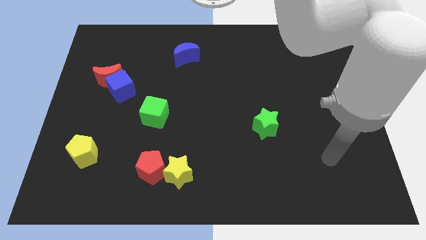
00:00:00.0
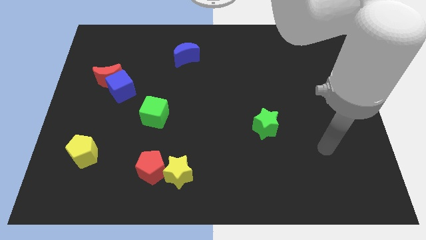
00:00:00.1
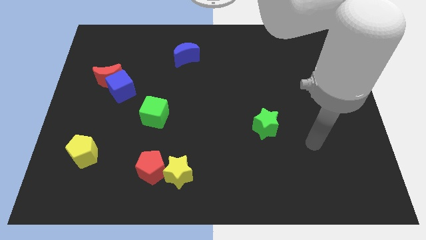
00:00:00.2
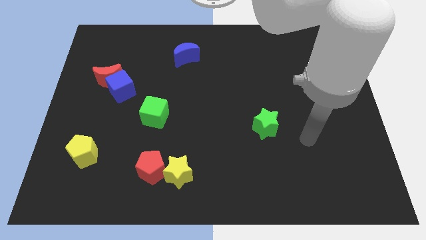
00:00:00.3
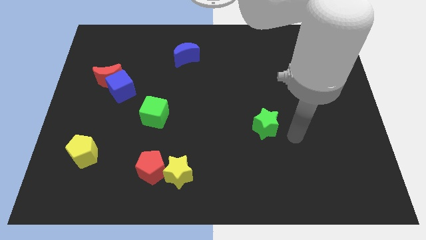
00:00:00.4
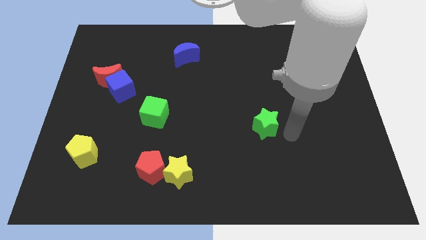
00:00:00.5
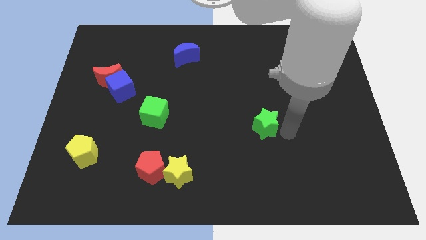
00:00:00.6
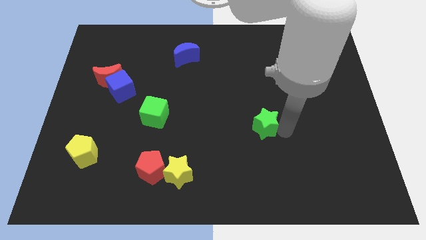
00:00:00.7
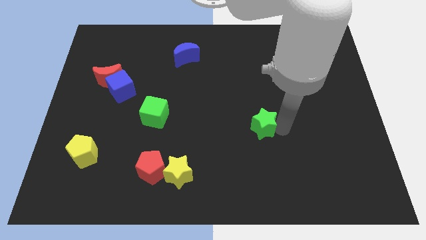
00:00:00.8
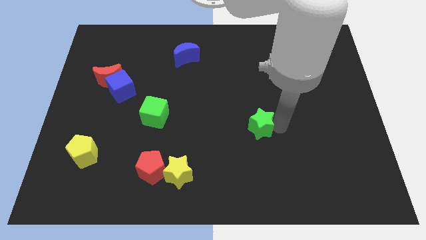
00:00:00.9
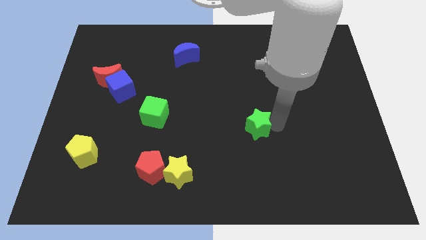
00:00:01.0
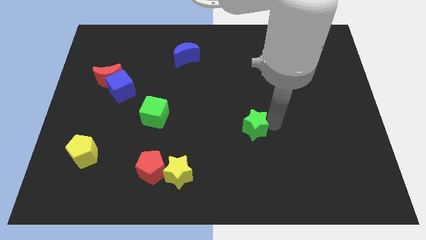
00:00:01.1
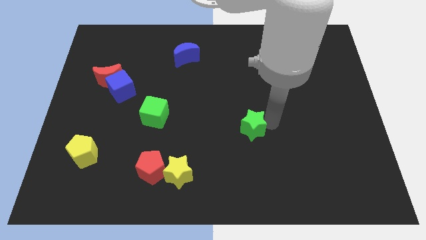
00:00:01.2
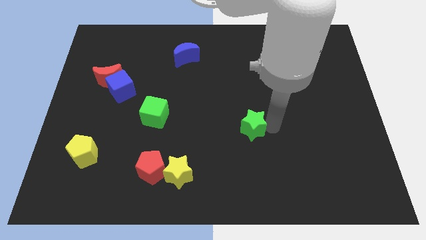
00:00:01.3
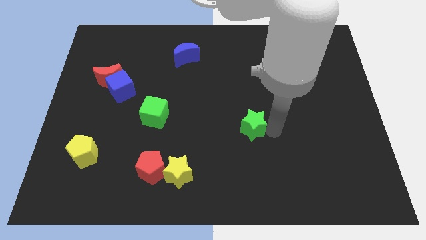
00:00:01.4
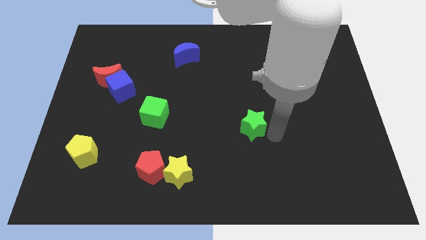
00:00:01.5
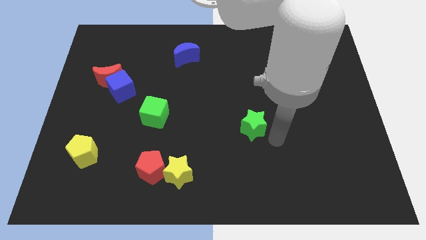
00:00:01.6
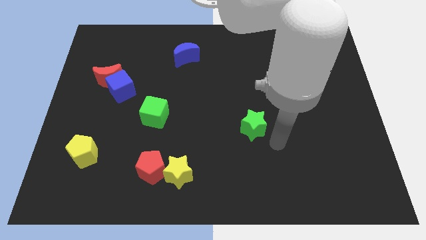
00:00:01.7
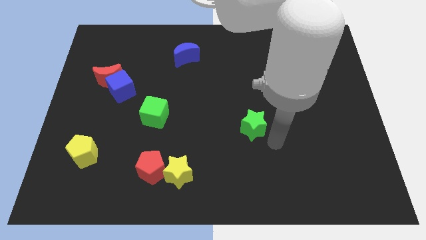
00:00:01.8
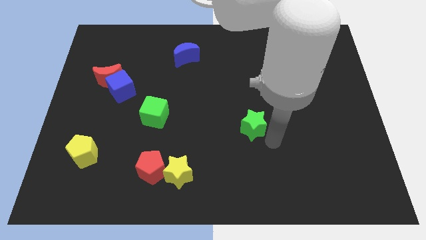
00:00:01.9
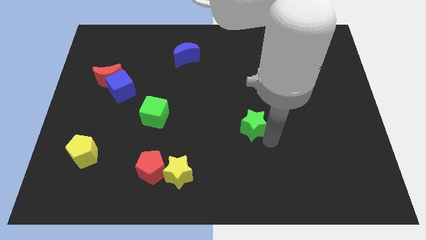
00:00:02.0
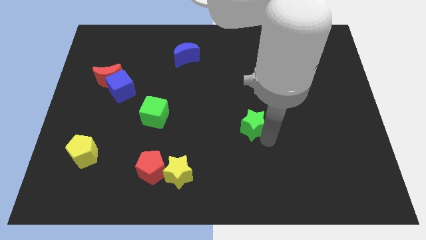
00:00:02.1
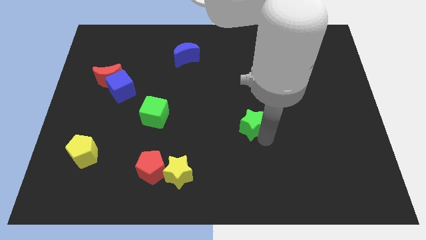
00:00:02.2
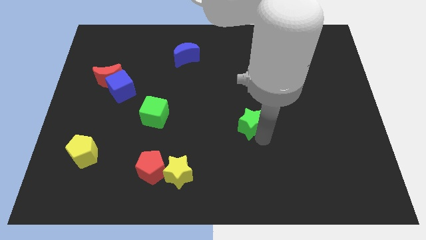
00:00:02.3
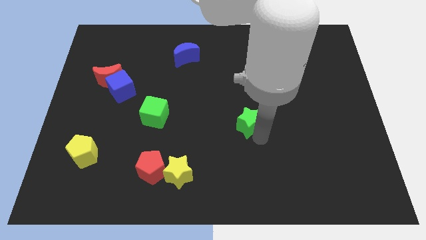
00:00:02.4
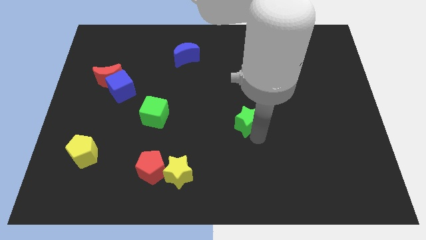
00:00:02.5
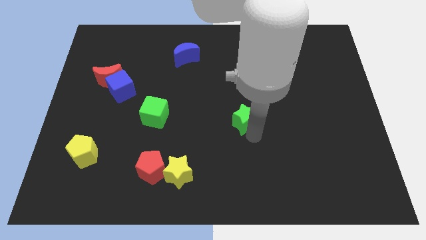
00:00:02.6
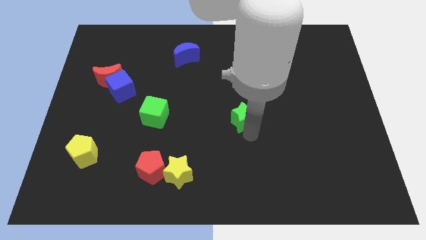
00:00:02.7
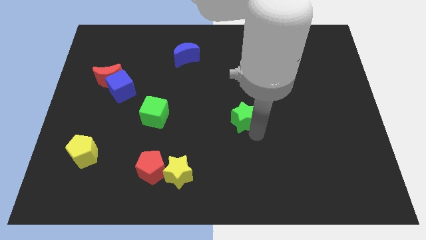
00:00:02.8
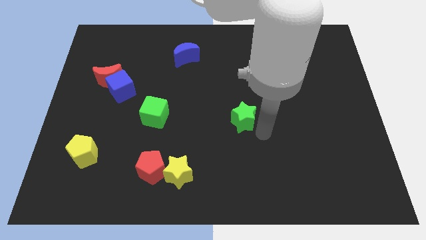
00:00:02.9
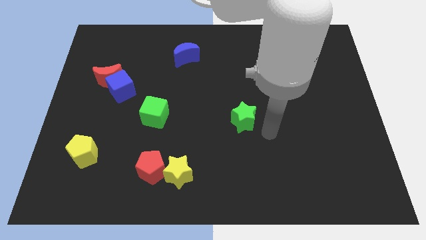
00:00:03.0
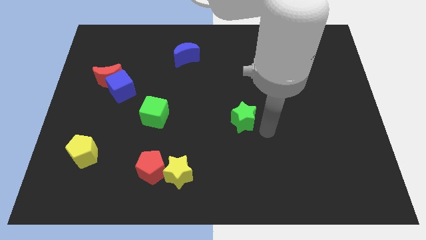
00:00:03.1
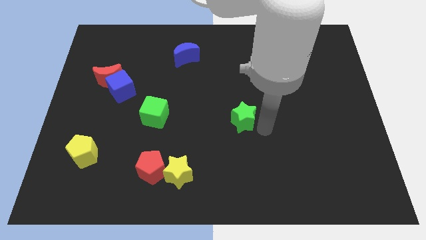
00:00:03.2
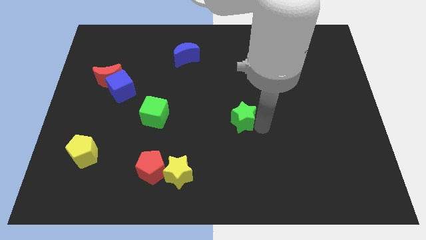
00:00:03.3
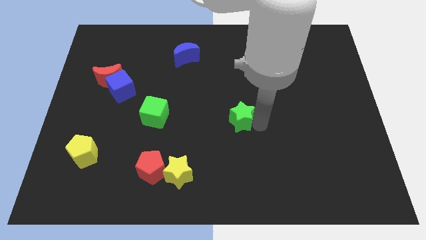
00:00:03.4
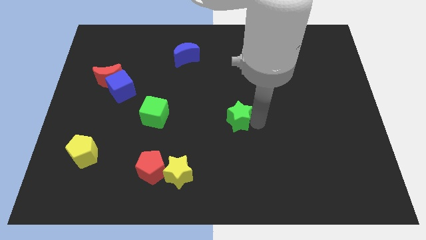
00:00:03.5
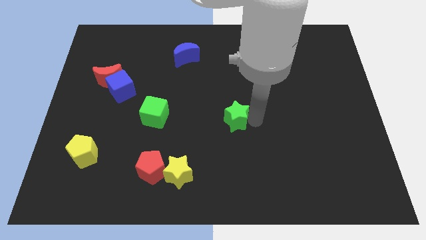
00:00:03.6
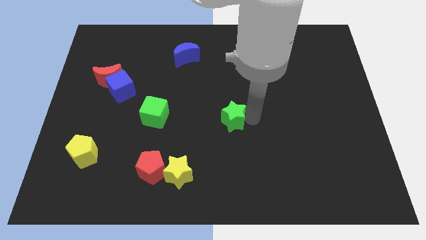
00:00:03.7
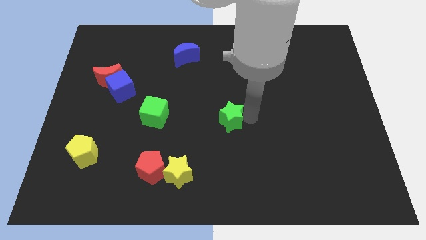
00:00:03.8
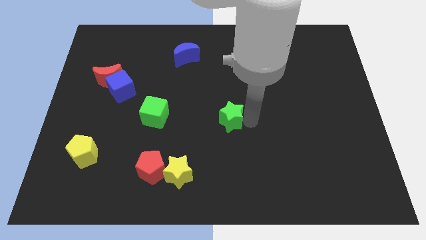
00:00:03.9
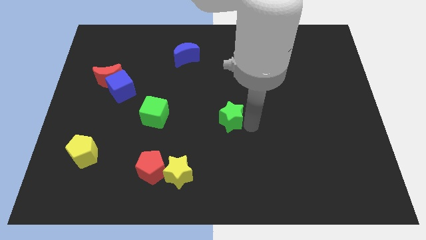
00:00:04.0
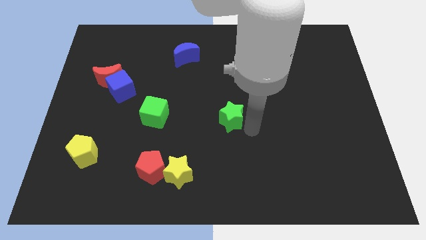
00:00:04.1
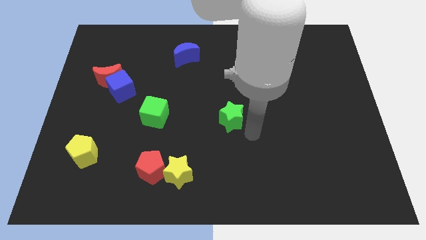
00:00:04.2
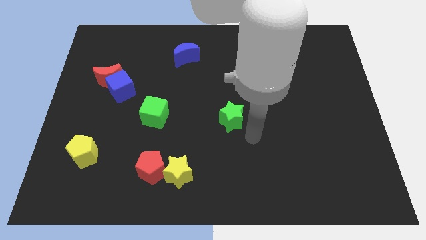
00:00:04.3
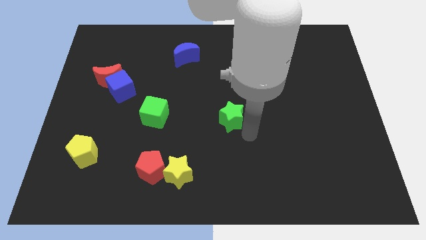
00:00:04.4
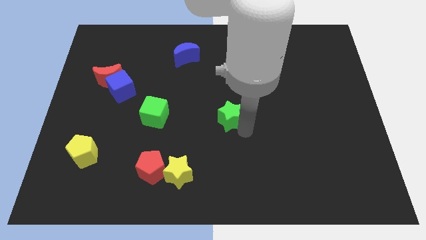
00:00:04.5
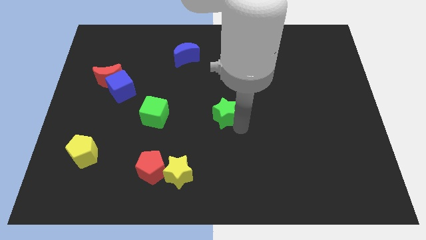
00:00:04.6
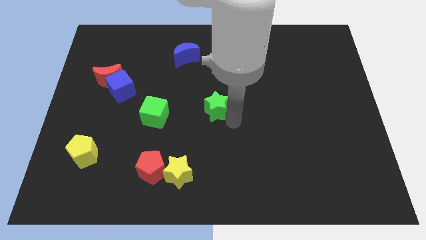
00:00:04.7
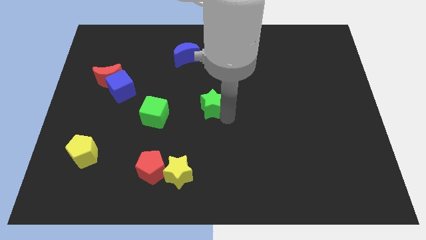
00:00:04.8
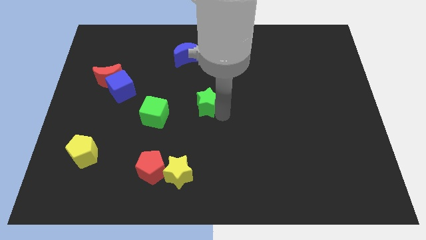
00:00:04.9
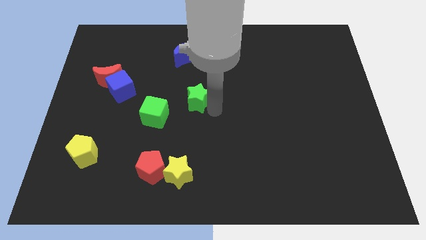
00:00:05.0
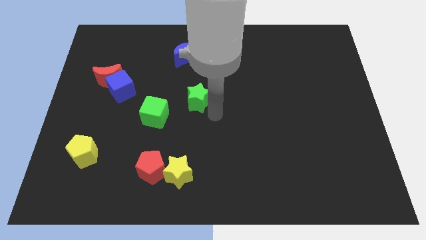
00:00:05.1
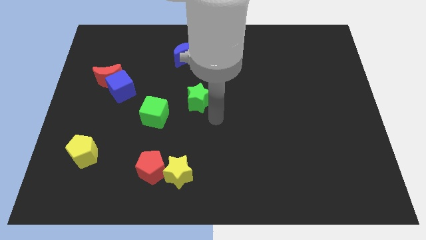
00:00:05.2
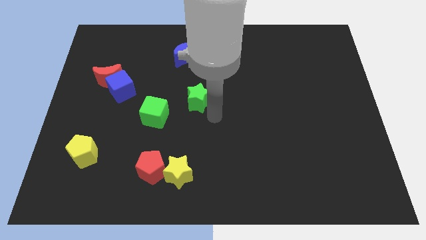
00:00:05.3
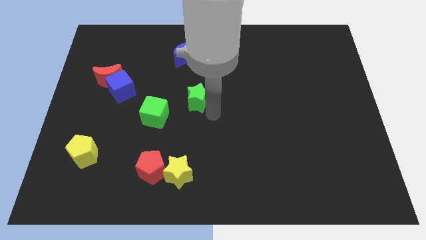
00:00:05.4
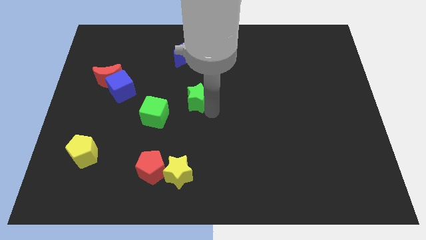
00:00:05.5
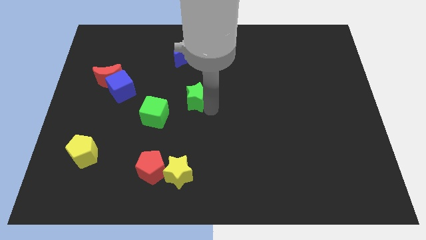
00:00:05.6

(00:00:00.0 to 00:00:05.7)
move the green star below the blue moon

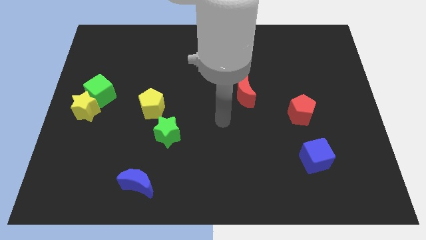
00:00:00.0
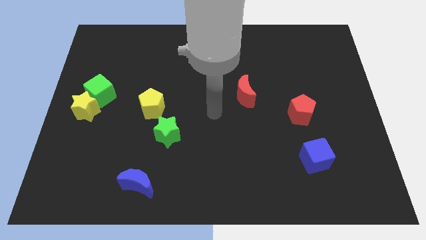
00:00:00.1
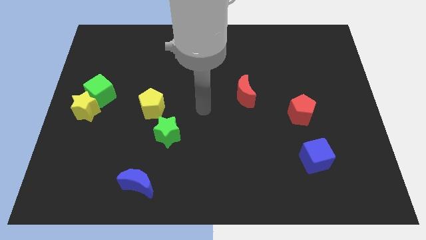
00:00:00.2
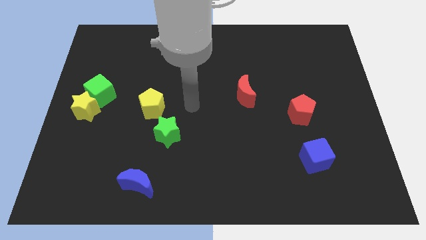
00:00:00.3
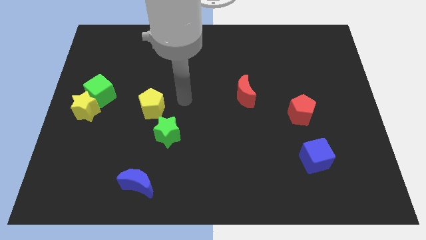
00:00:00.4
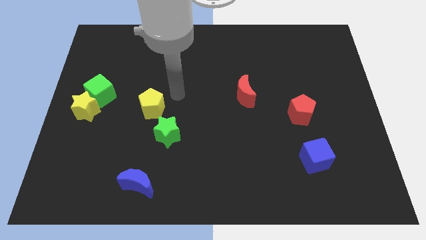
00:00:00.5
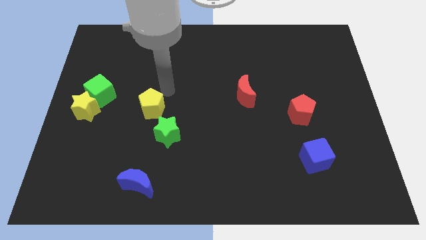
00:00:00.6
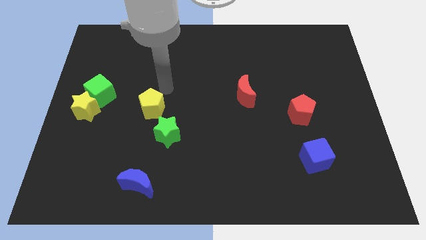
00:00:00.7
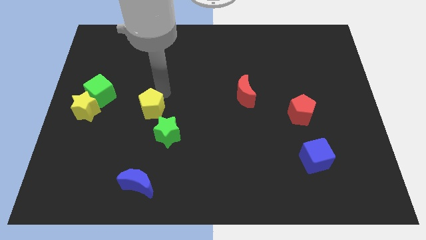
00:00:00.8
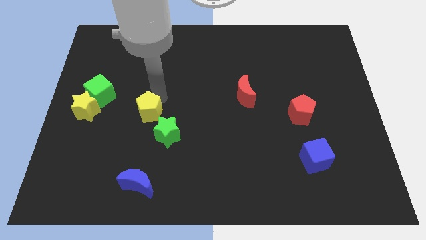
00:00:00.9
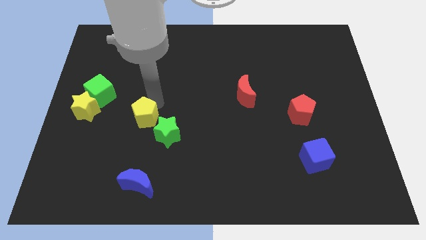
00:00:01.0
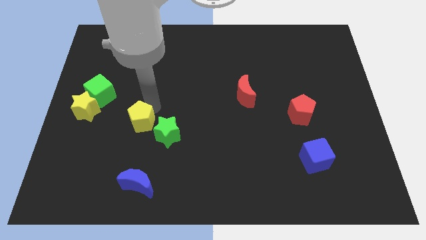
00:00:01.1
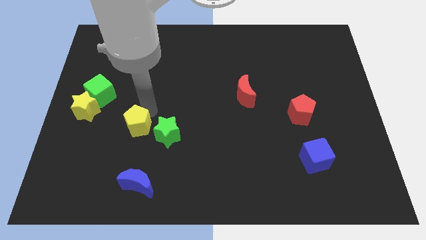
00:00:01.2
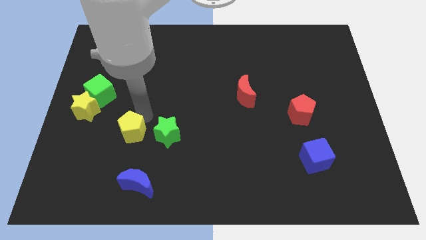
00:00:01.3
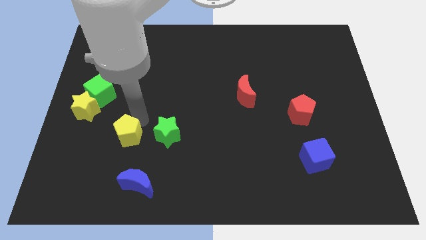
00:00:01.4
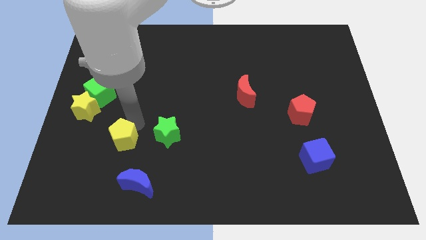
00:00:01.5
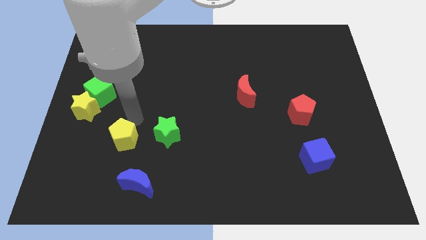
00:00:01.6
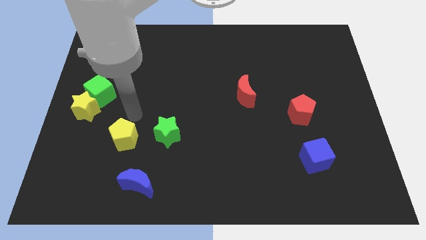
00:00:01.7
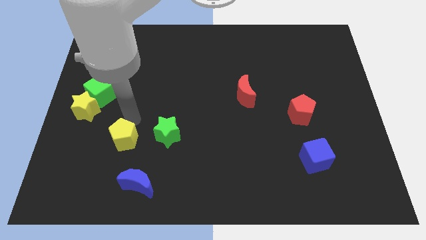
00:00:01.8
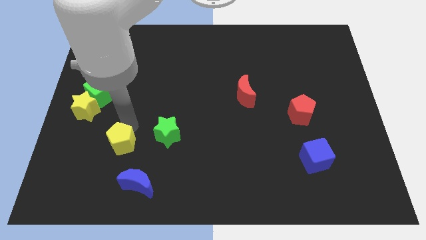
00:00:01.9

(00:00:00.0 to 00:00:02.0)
move the yellow pentagon to the top left side of the blue moon
